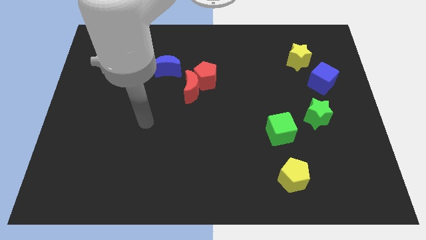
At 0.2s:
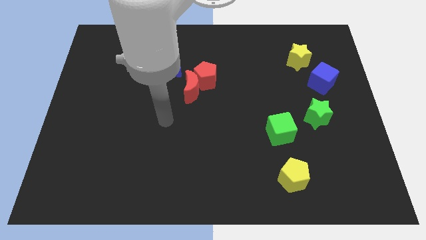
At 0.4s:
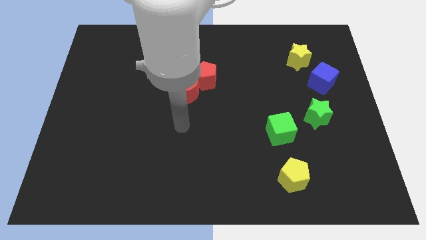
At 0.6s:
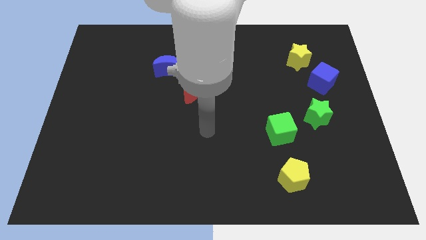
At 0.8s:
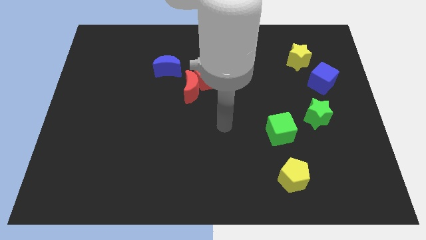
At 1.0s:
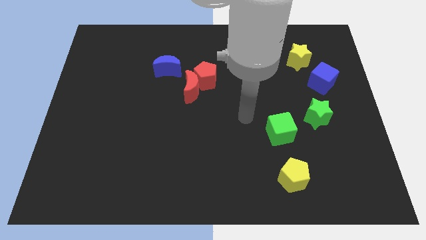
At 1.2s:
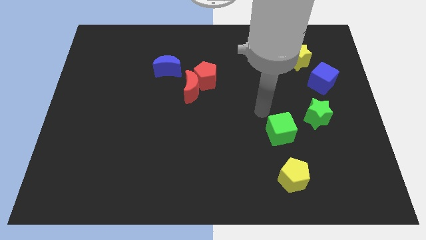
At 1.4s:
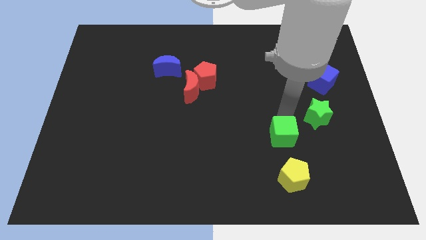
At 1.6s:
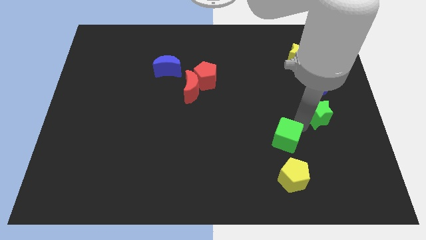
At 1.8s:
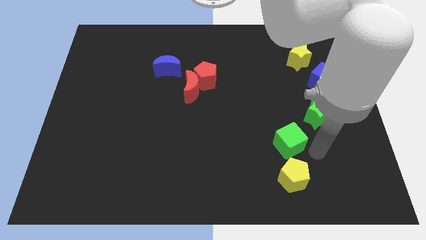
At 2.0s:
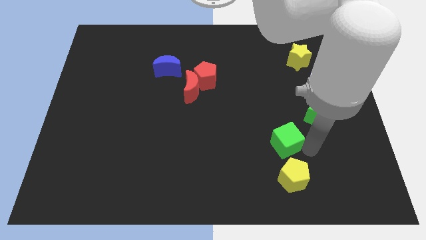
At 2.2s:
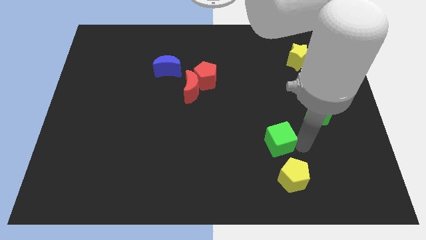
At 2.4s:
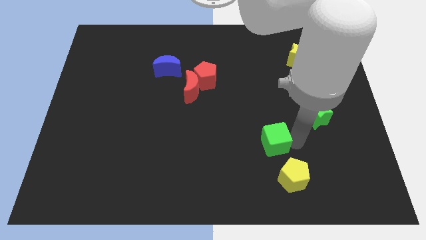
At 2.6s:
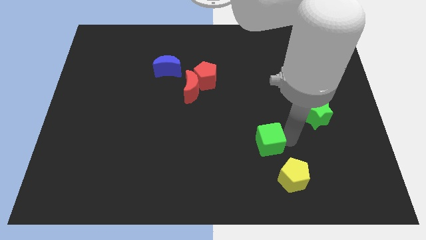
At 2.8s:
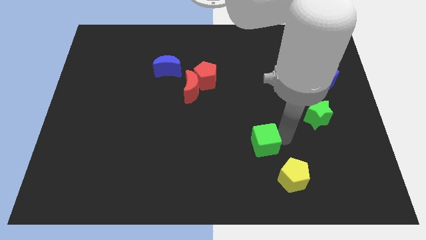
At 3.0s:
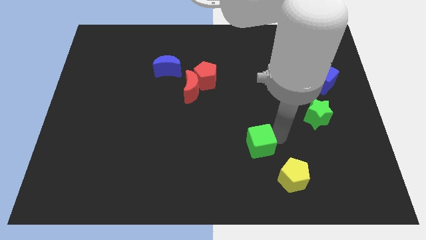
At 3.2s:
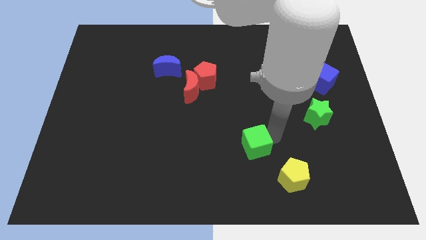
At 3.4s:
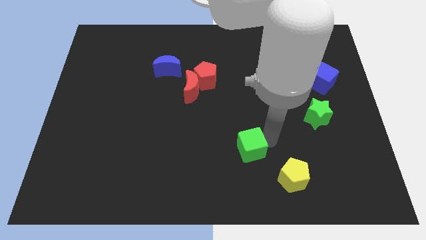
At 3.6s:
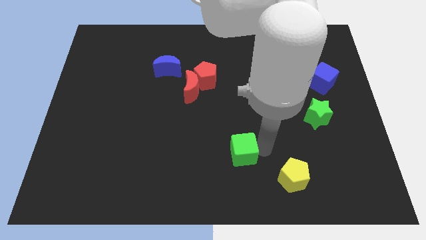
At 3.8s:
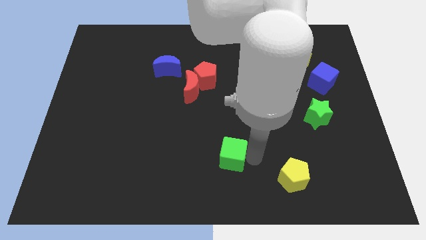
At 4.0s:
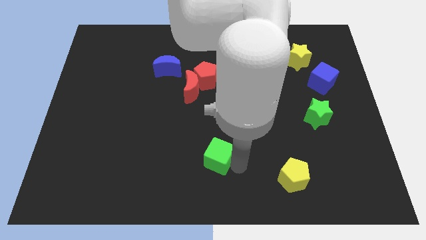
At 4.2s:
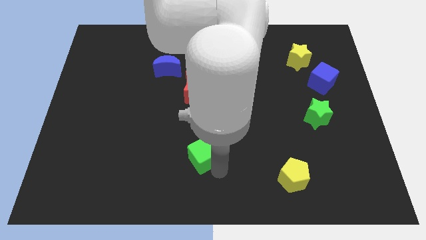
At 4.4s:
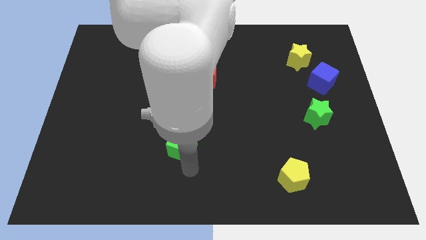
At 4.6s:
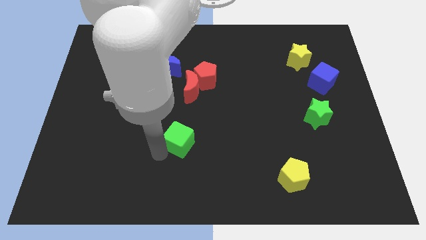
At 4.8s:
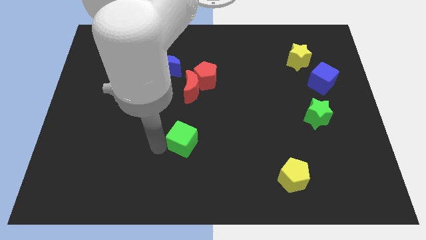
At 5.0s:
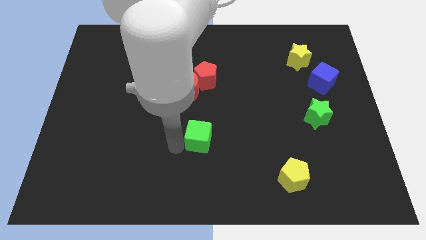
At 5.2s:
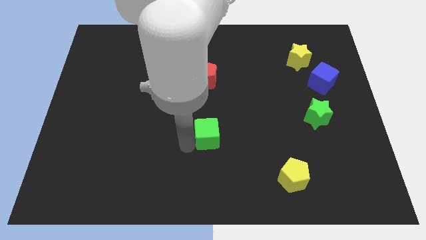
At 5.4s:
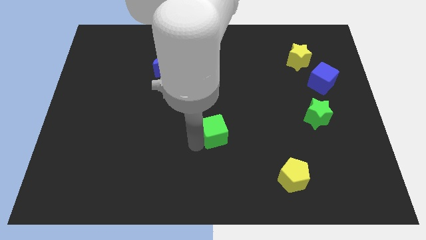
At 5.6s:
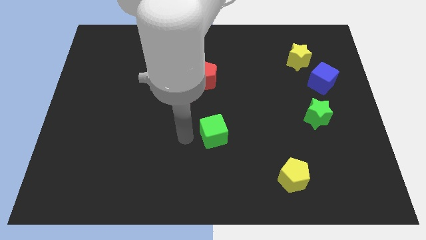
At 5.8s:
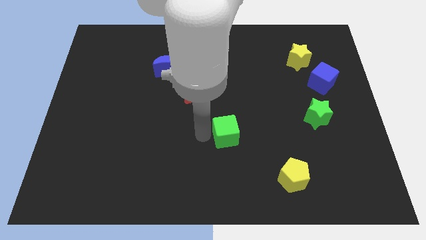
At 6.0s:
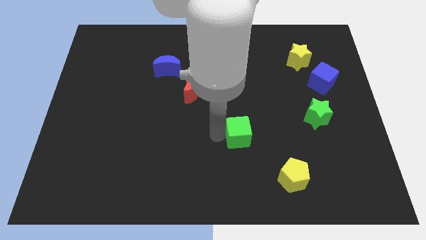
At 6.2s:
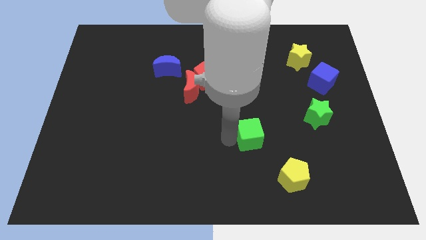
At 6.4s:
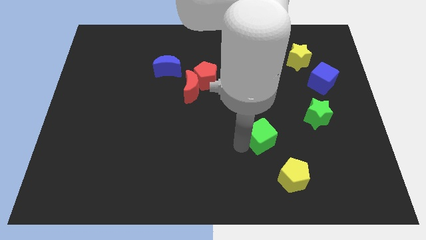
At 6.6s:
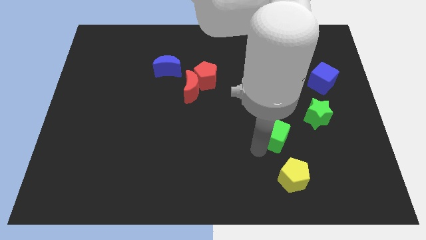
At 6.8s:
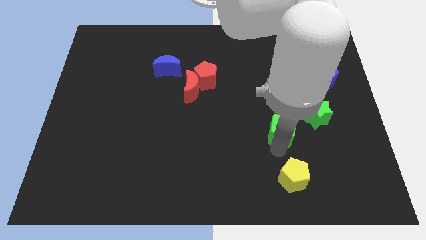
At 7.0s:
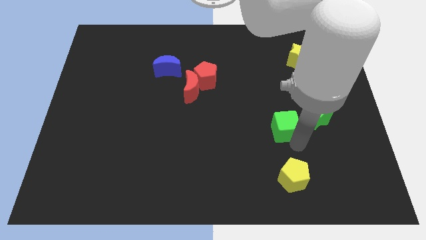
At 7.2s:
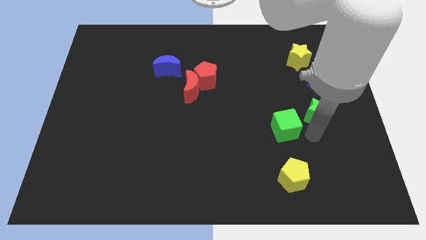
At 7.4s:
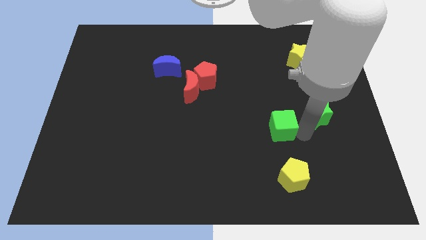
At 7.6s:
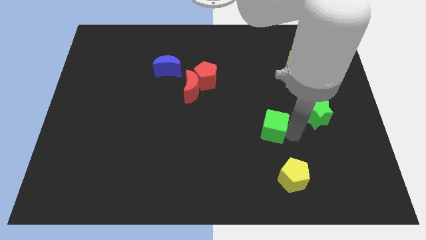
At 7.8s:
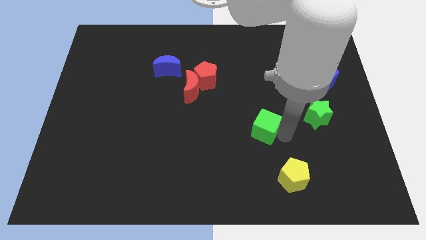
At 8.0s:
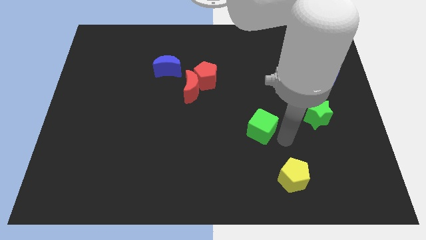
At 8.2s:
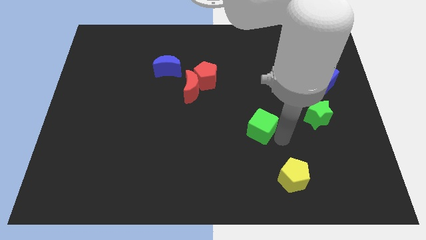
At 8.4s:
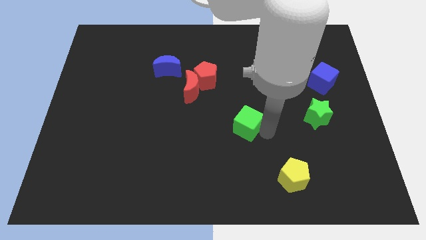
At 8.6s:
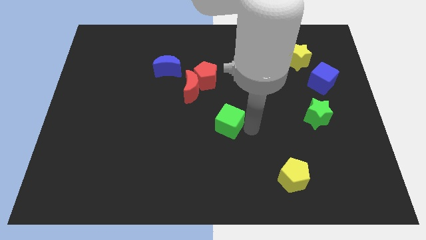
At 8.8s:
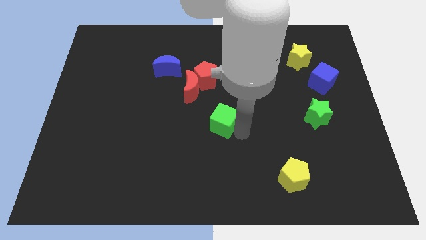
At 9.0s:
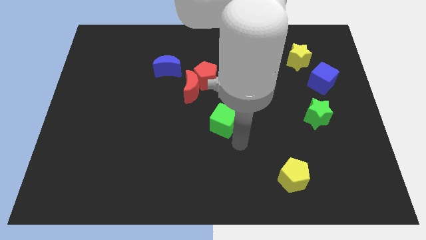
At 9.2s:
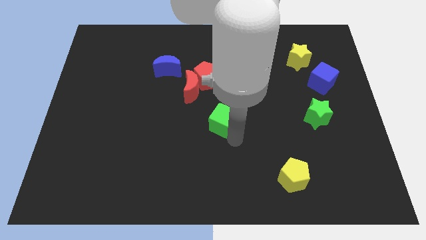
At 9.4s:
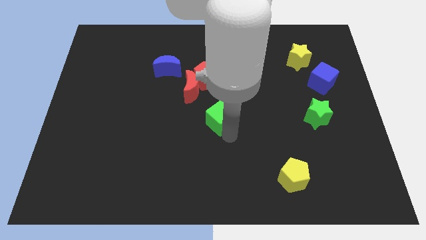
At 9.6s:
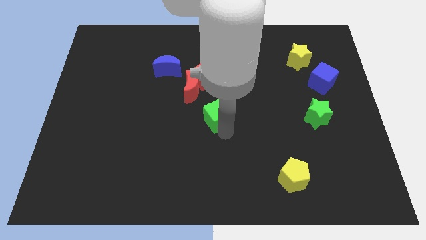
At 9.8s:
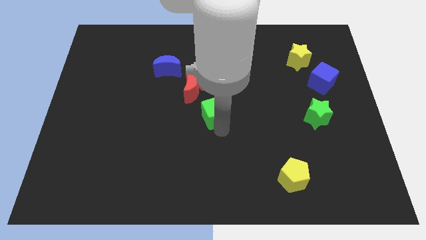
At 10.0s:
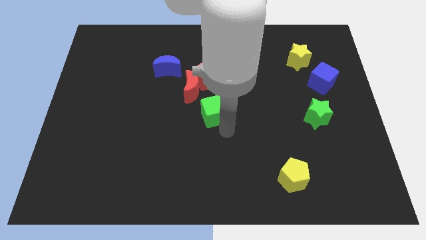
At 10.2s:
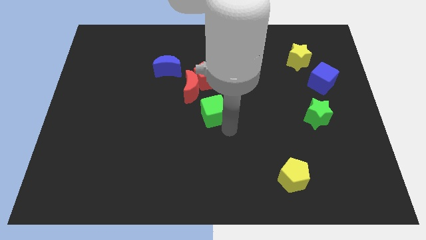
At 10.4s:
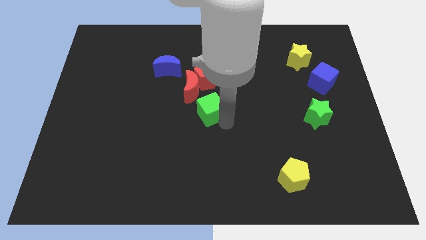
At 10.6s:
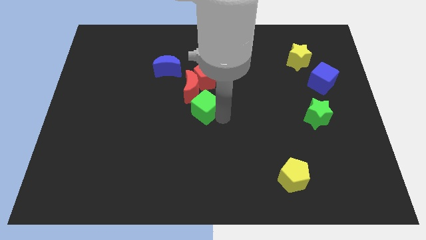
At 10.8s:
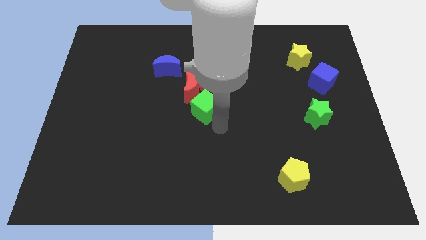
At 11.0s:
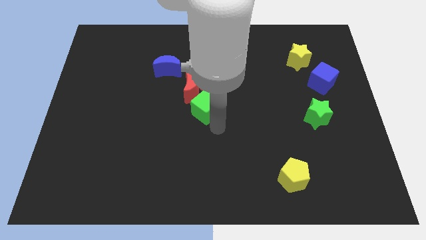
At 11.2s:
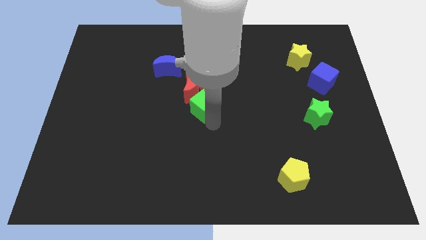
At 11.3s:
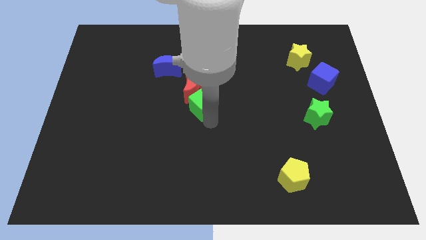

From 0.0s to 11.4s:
push the green cube next to the red moon

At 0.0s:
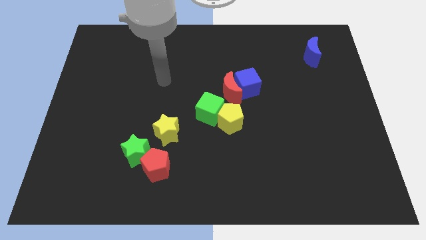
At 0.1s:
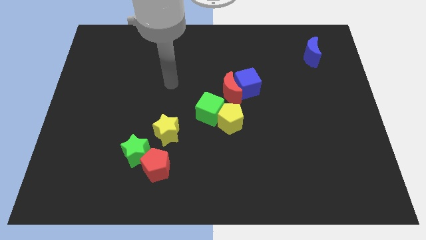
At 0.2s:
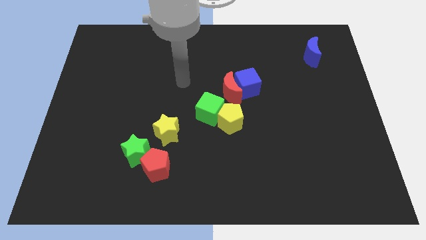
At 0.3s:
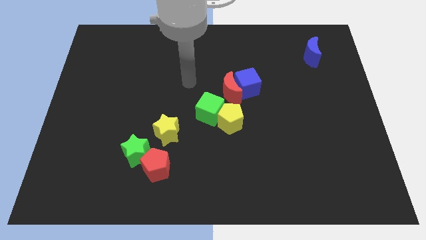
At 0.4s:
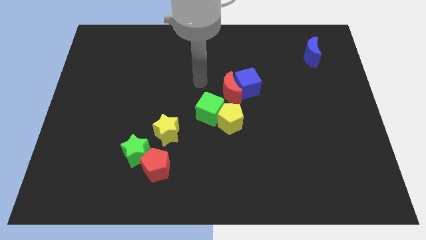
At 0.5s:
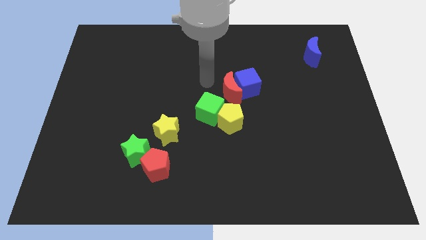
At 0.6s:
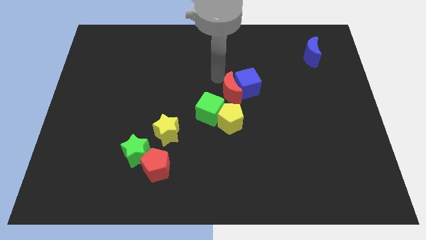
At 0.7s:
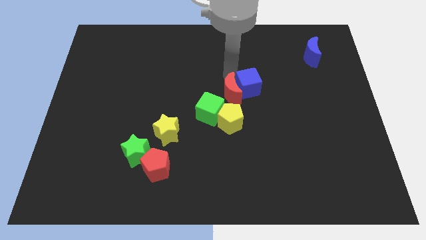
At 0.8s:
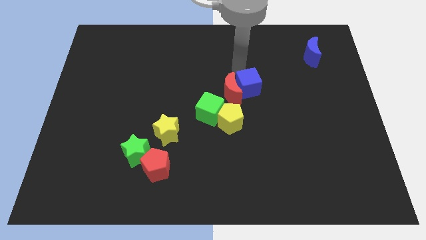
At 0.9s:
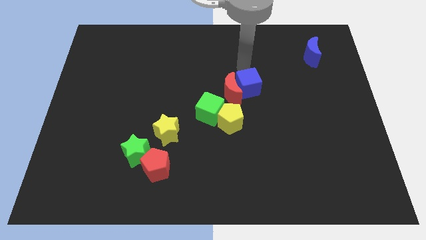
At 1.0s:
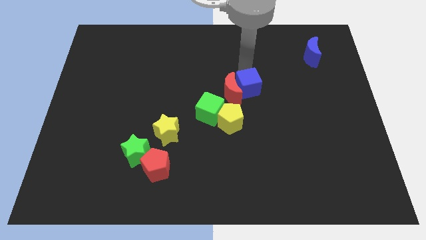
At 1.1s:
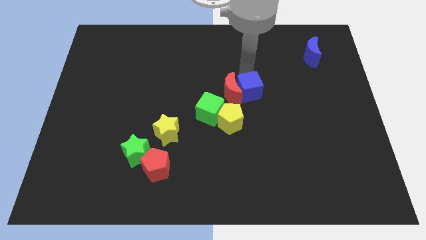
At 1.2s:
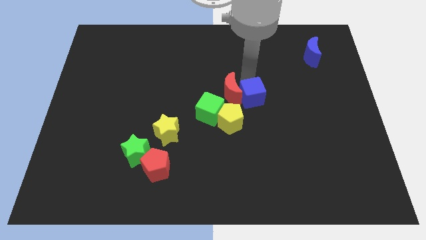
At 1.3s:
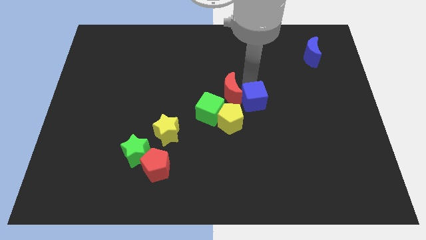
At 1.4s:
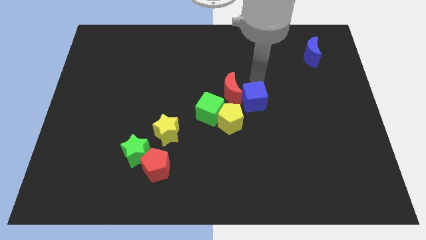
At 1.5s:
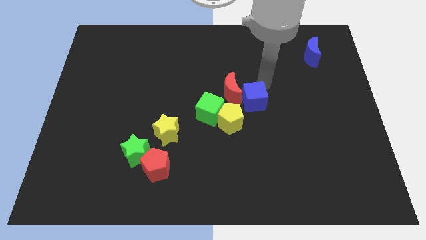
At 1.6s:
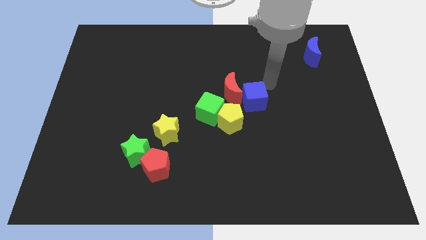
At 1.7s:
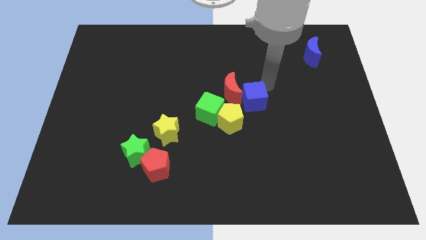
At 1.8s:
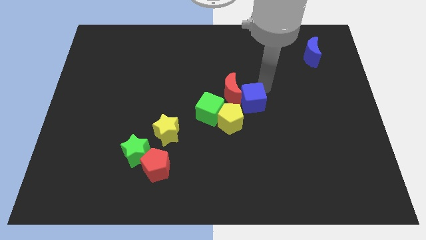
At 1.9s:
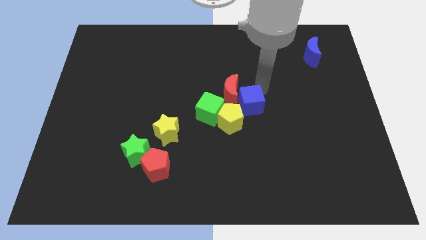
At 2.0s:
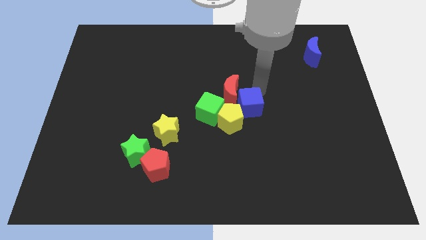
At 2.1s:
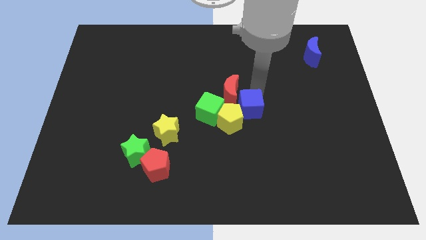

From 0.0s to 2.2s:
move the blue cube towards the yellow pentagon
